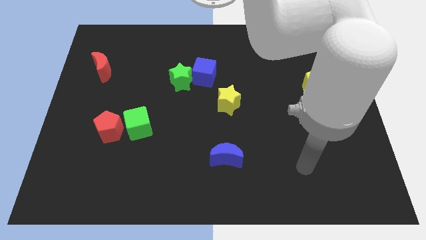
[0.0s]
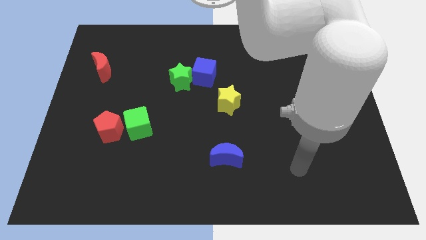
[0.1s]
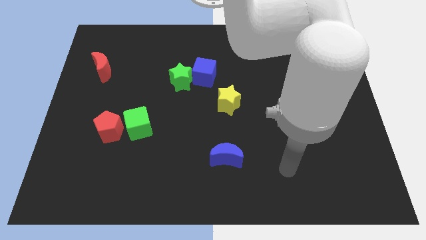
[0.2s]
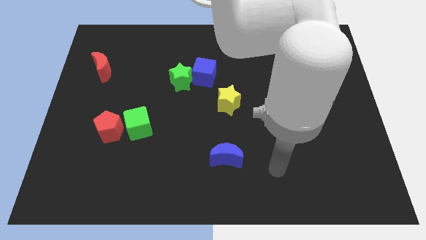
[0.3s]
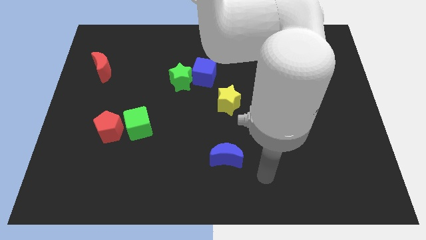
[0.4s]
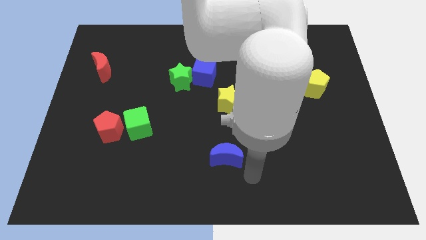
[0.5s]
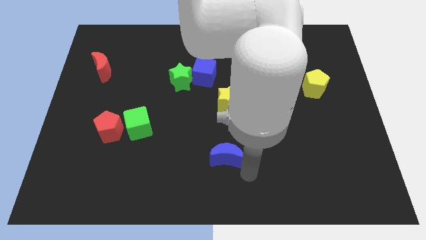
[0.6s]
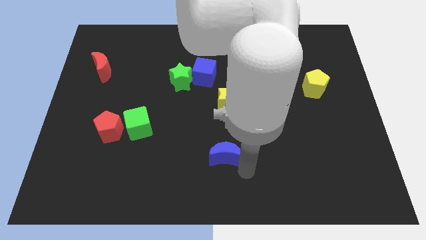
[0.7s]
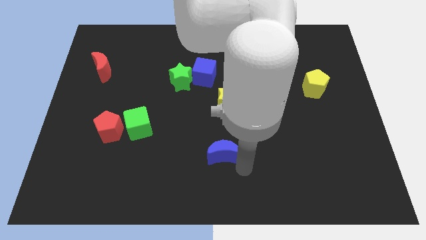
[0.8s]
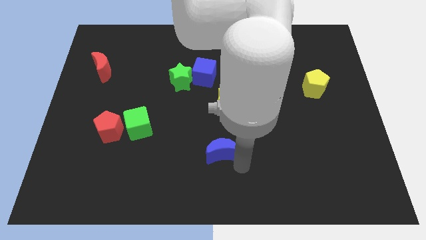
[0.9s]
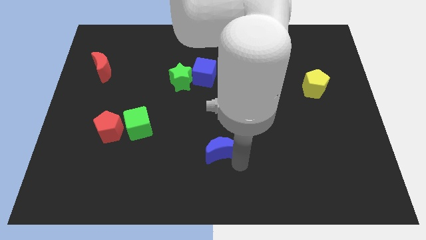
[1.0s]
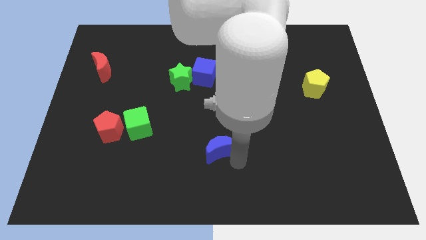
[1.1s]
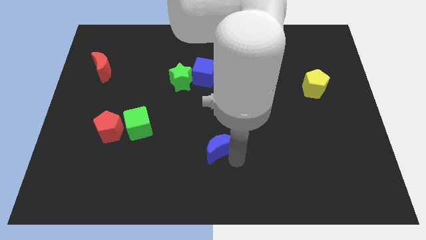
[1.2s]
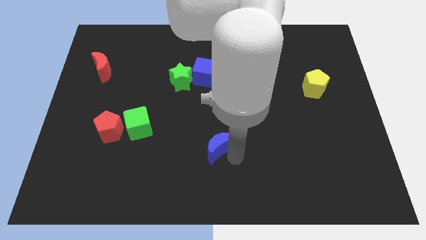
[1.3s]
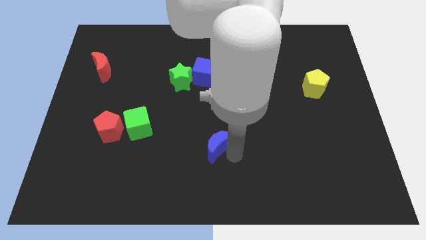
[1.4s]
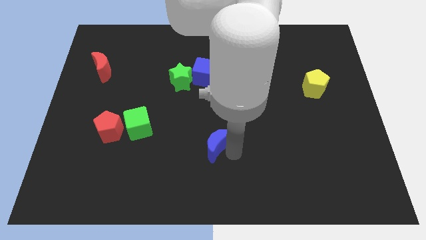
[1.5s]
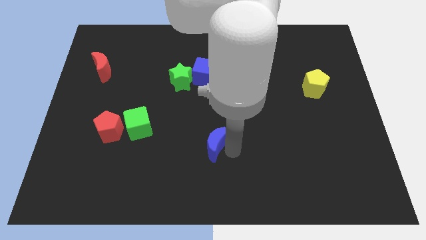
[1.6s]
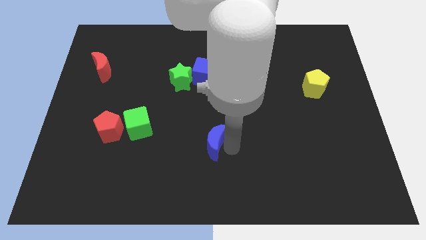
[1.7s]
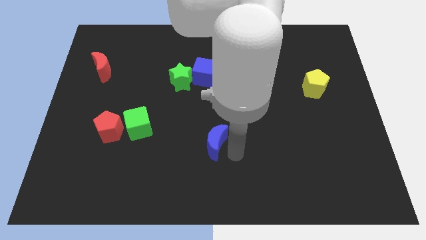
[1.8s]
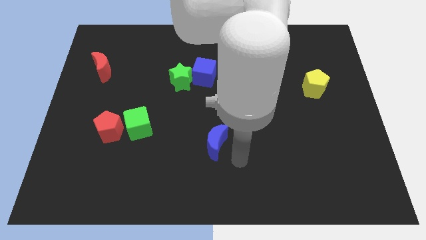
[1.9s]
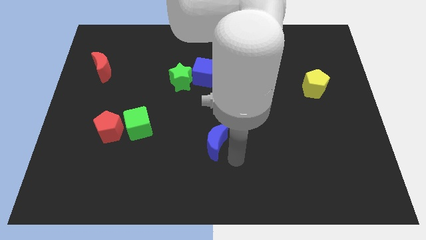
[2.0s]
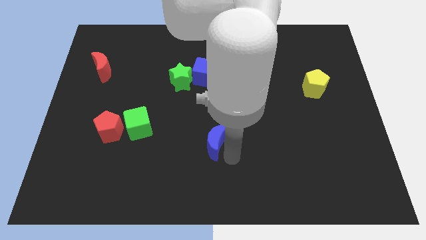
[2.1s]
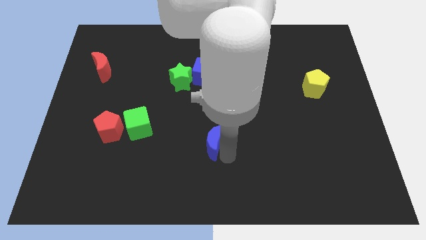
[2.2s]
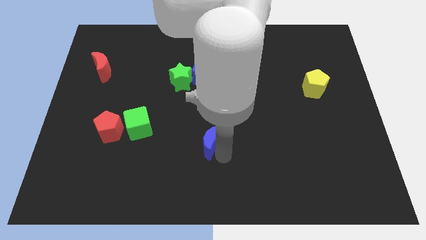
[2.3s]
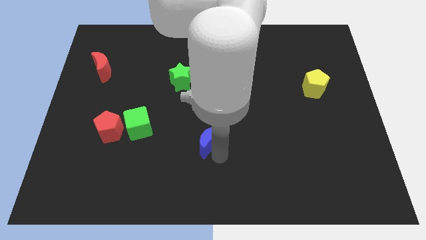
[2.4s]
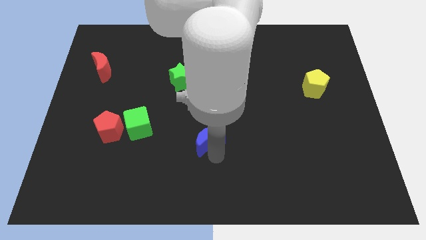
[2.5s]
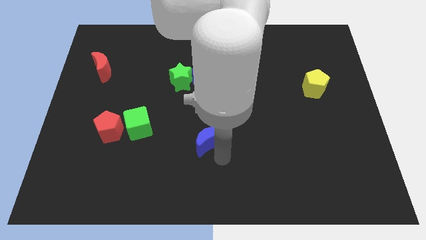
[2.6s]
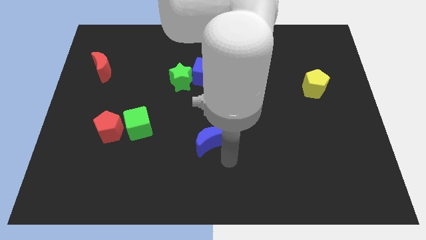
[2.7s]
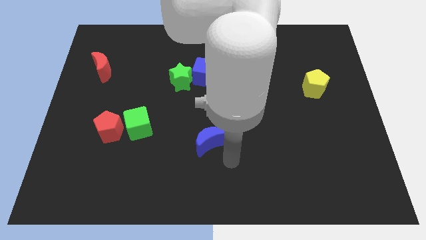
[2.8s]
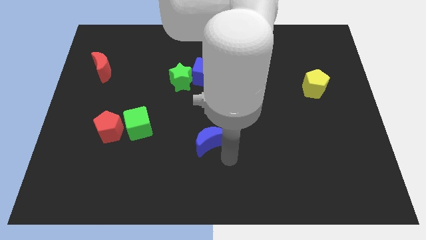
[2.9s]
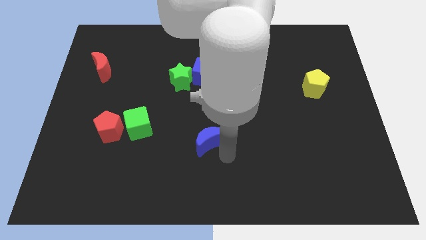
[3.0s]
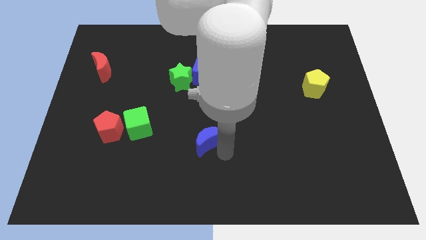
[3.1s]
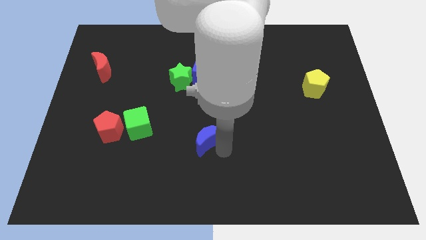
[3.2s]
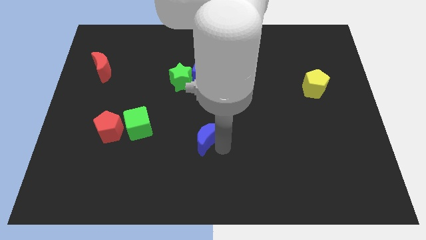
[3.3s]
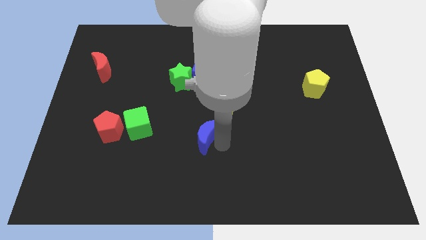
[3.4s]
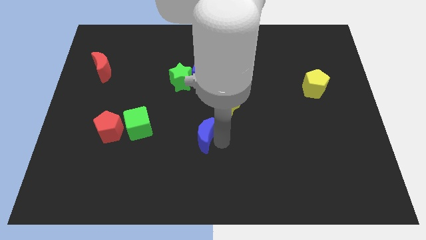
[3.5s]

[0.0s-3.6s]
push the blue moon a little diagonally upwards and to the left

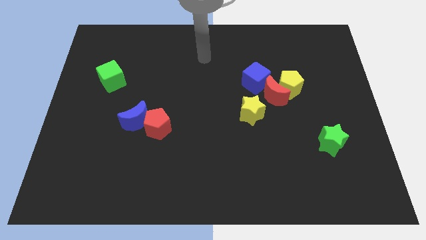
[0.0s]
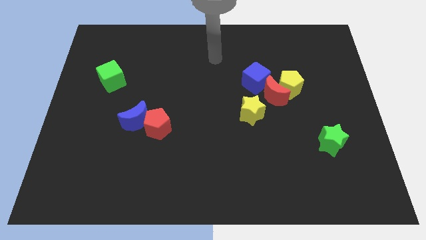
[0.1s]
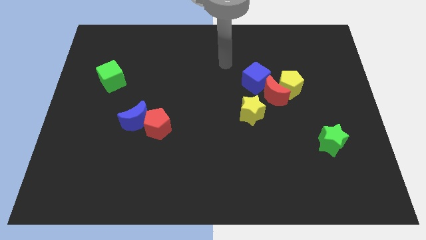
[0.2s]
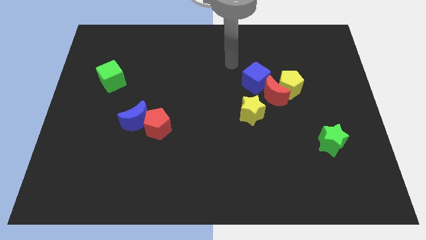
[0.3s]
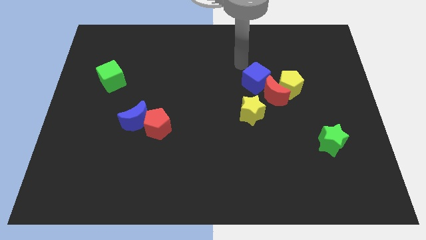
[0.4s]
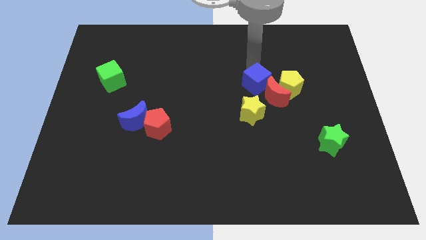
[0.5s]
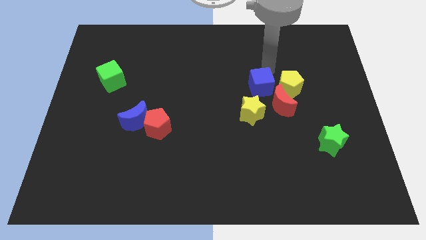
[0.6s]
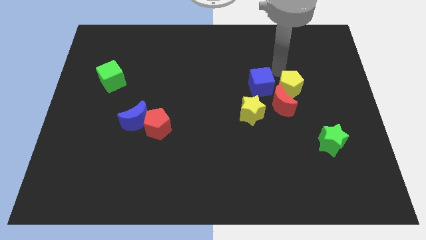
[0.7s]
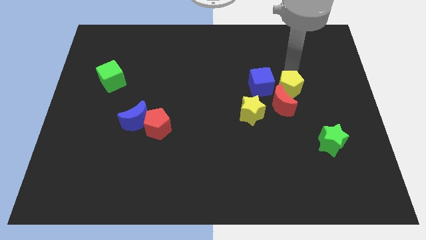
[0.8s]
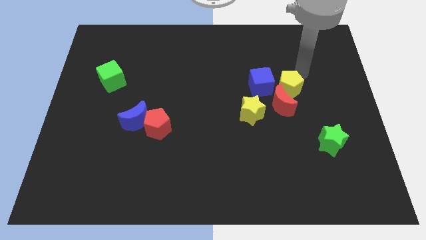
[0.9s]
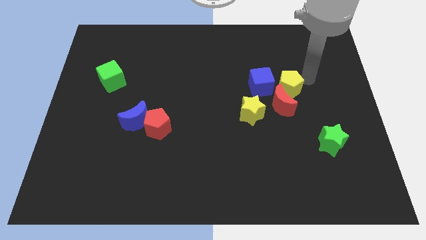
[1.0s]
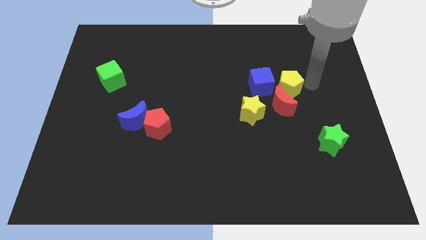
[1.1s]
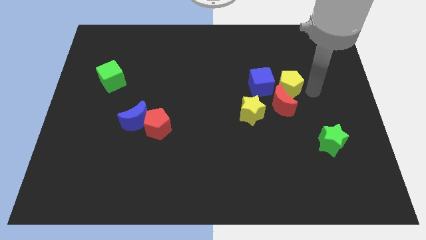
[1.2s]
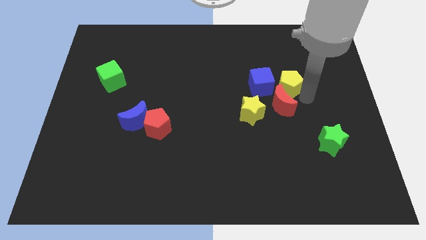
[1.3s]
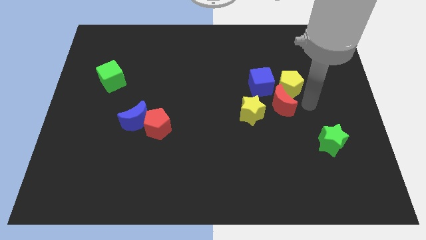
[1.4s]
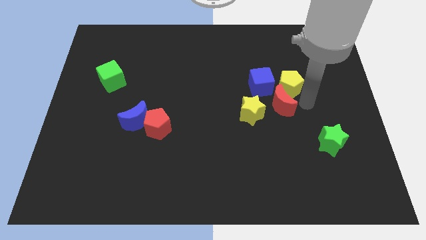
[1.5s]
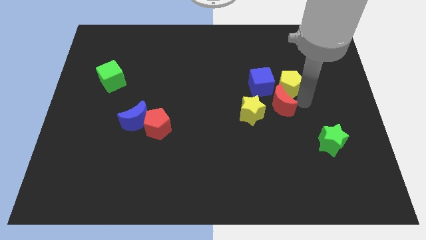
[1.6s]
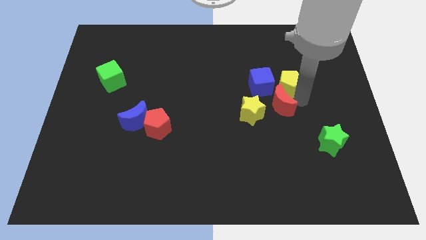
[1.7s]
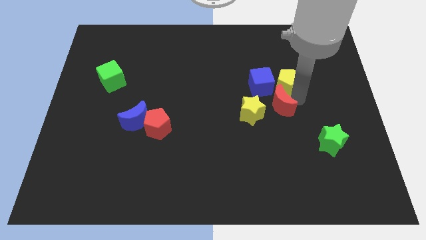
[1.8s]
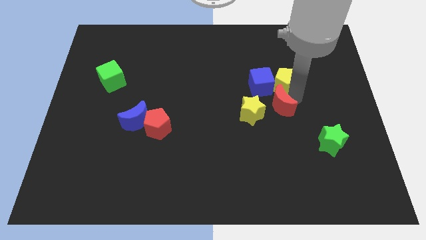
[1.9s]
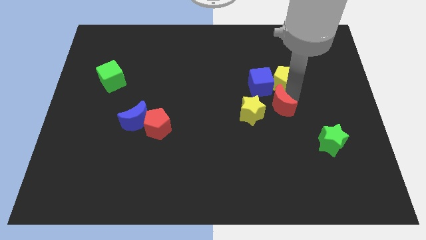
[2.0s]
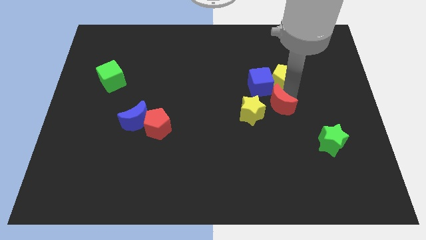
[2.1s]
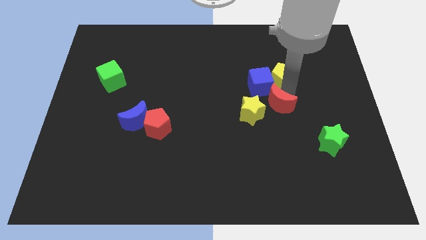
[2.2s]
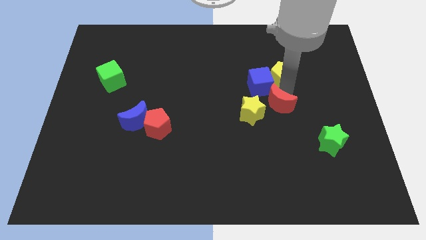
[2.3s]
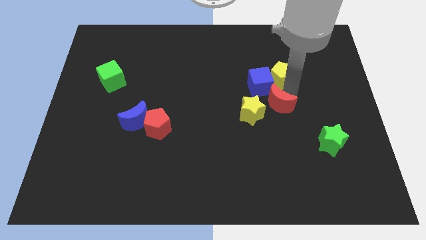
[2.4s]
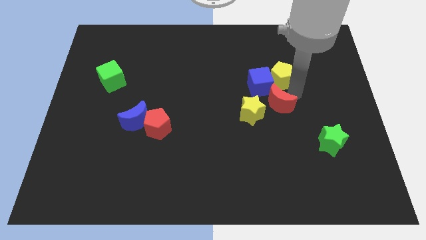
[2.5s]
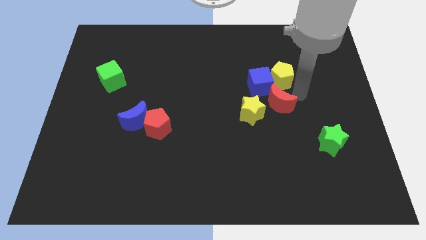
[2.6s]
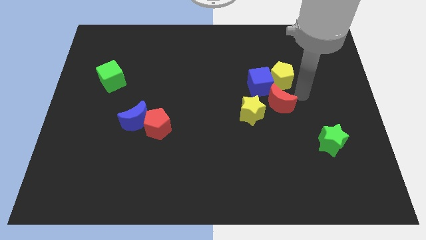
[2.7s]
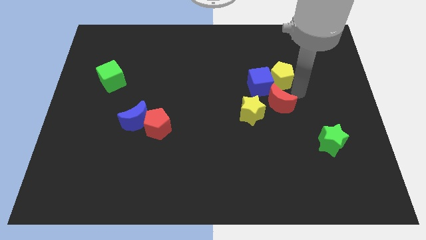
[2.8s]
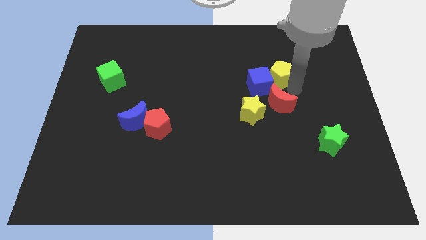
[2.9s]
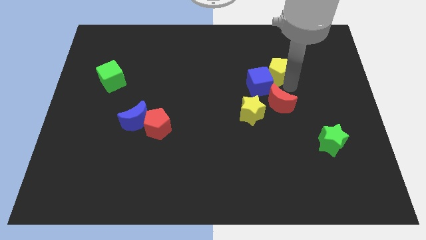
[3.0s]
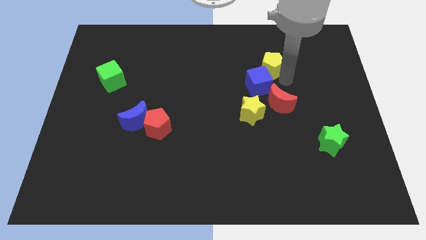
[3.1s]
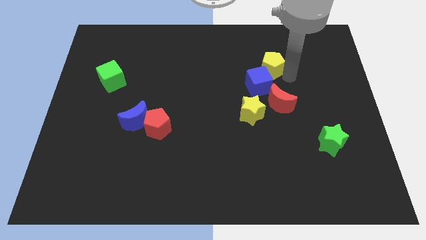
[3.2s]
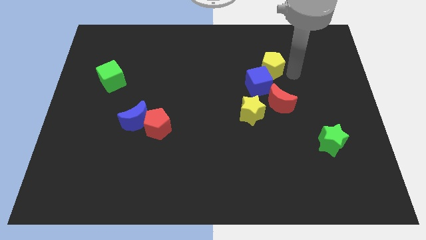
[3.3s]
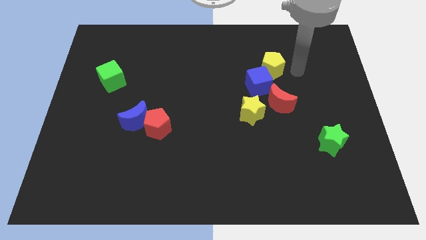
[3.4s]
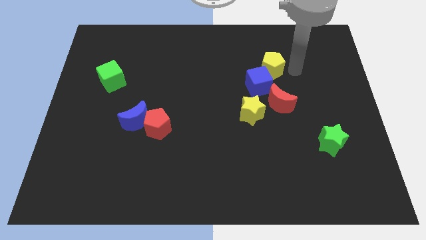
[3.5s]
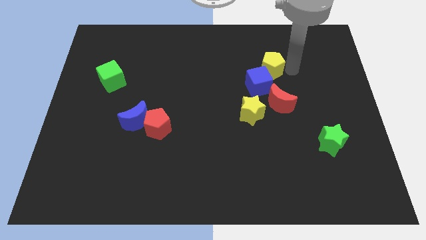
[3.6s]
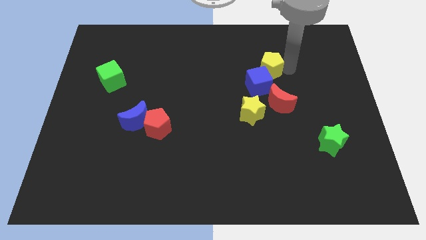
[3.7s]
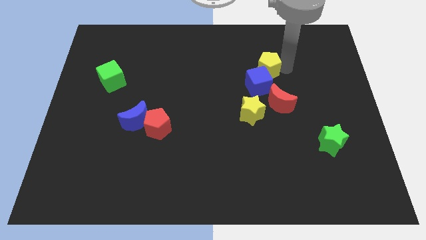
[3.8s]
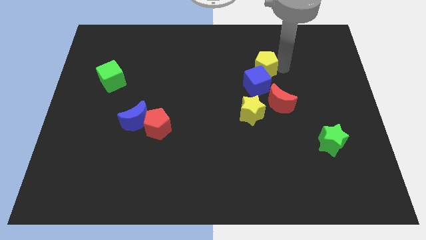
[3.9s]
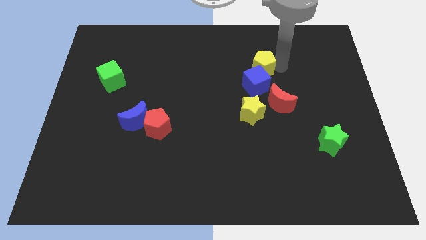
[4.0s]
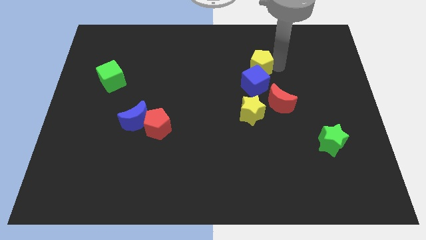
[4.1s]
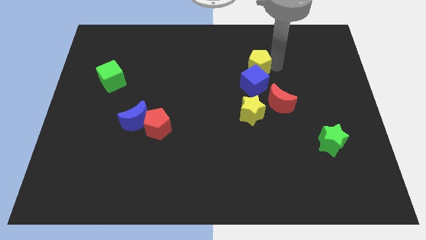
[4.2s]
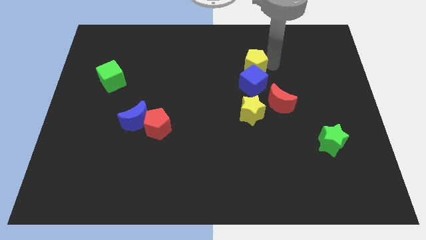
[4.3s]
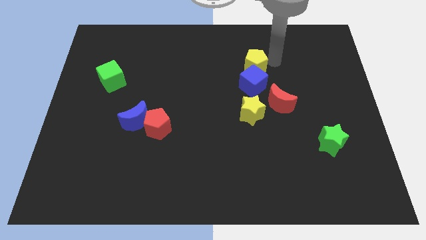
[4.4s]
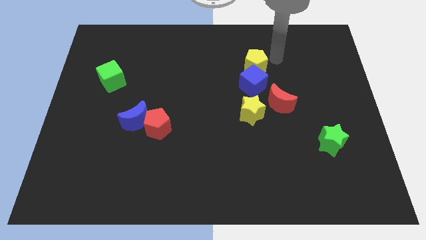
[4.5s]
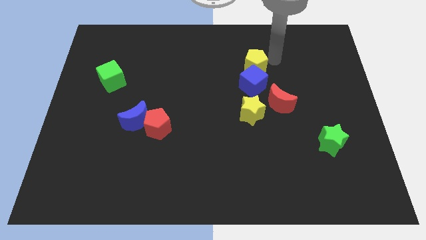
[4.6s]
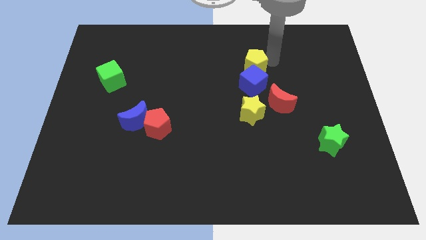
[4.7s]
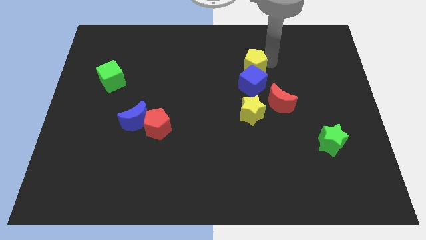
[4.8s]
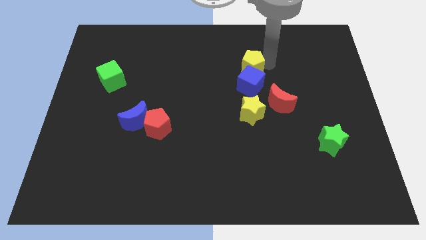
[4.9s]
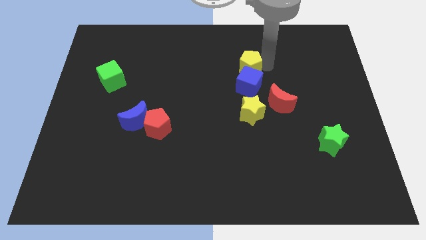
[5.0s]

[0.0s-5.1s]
push the yellow pentagon to the left a little bit
